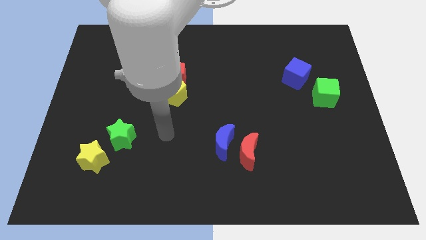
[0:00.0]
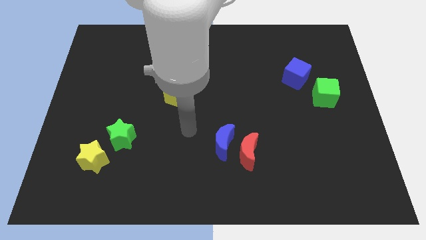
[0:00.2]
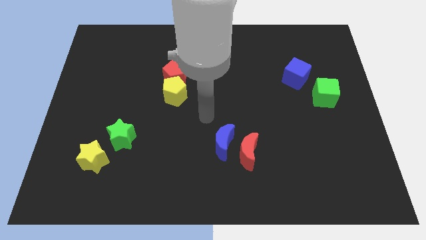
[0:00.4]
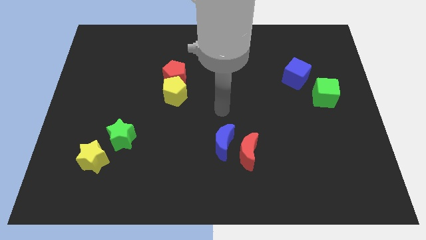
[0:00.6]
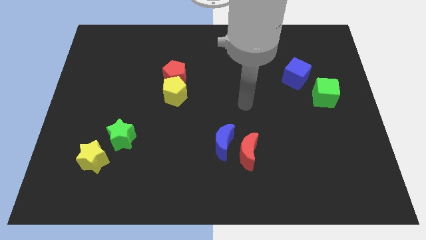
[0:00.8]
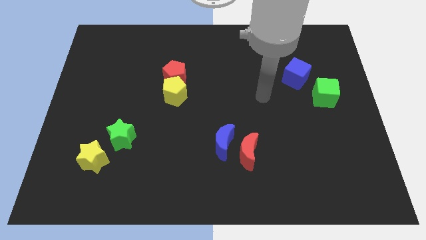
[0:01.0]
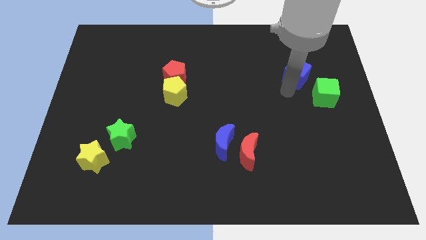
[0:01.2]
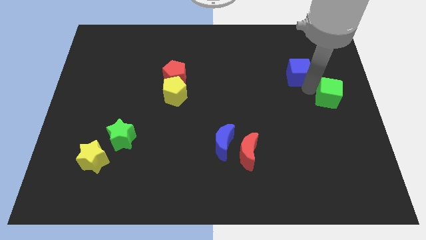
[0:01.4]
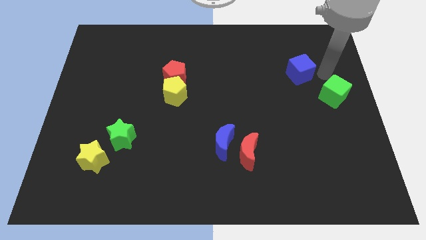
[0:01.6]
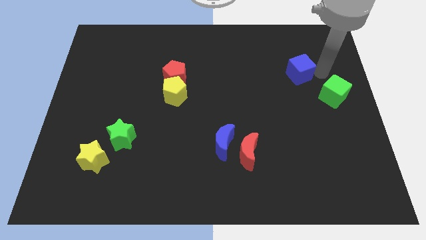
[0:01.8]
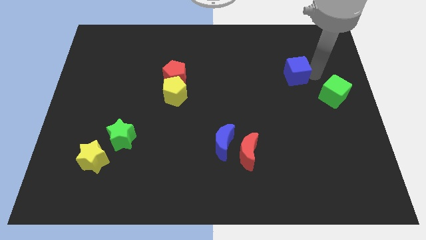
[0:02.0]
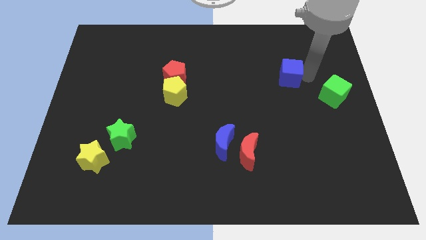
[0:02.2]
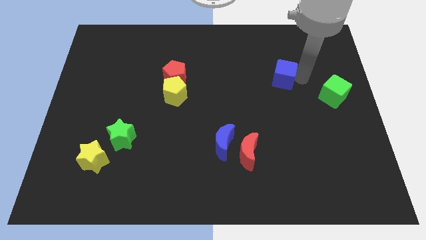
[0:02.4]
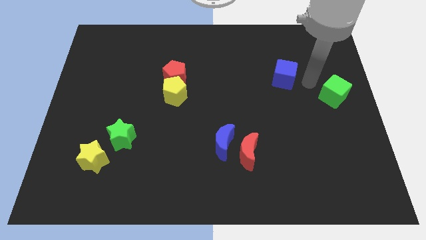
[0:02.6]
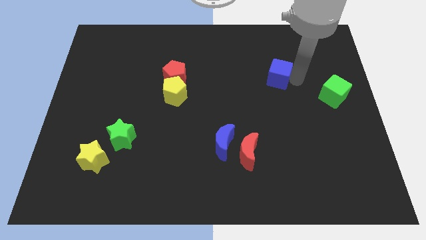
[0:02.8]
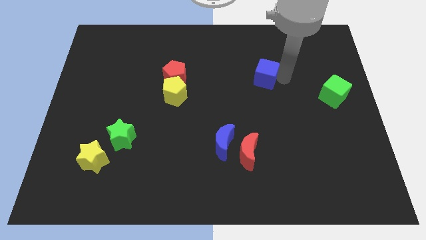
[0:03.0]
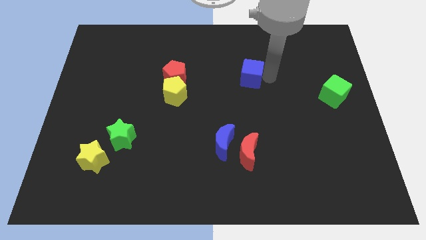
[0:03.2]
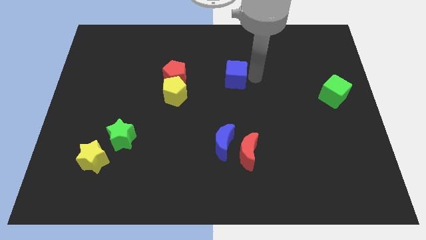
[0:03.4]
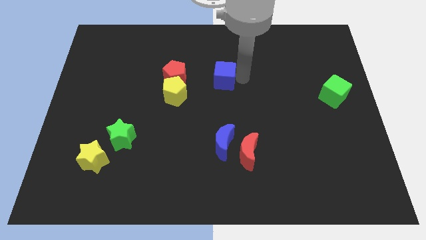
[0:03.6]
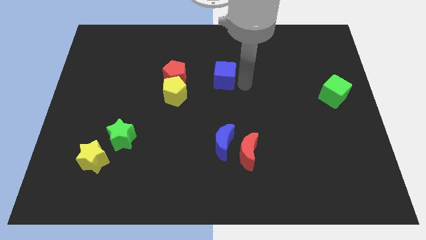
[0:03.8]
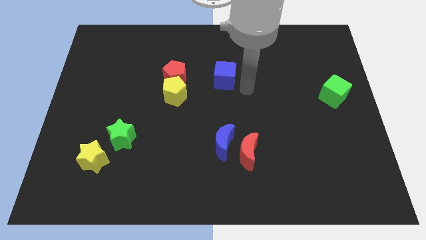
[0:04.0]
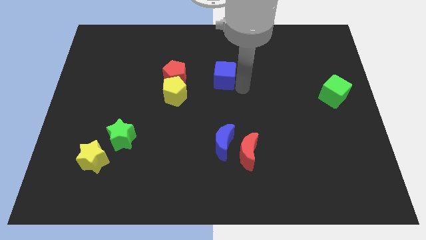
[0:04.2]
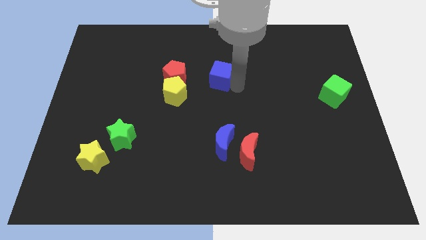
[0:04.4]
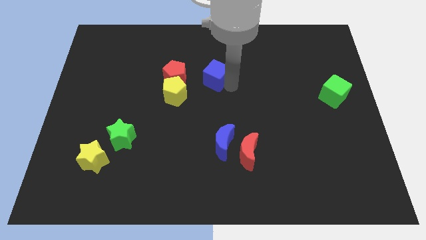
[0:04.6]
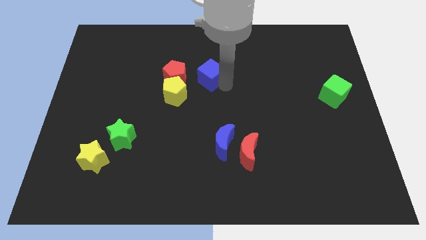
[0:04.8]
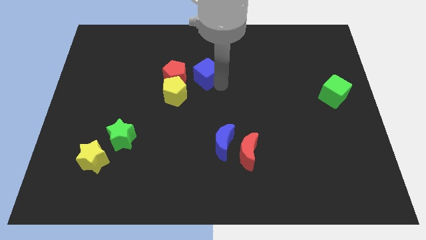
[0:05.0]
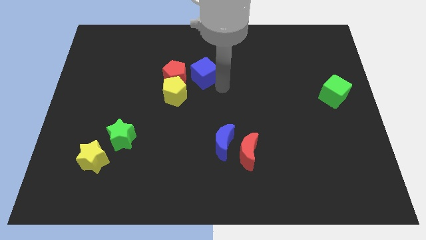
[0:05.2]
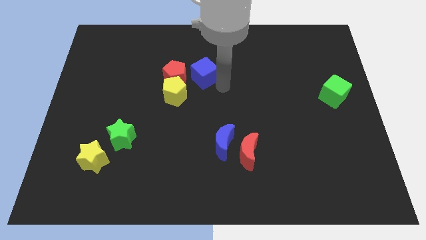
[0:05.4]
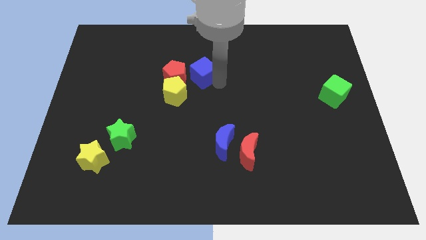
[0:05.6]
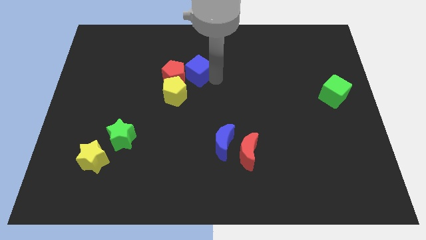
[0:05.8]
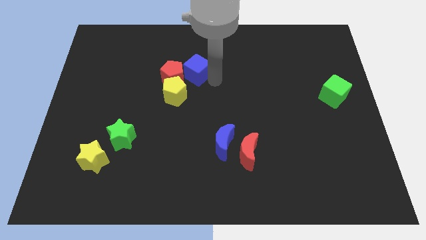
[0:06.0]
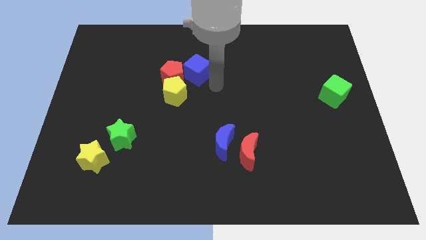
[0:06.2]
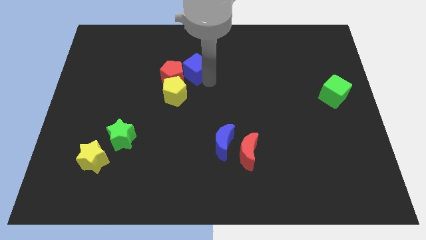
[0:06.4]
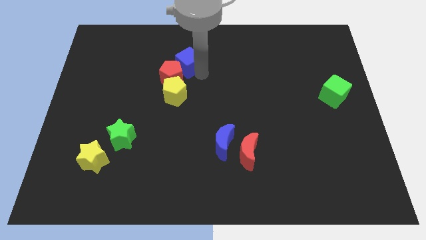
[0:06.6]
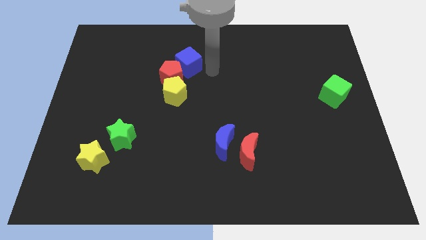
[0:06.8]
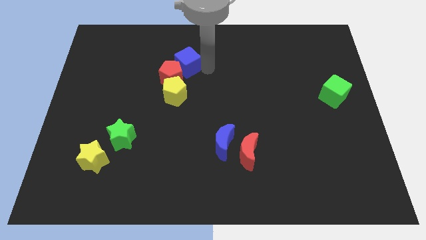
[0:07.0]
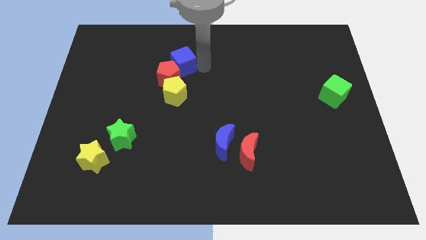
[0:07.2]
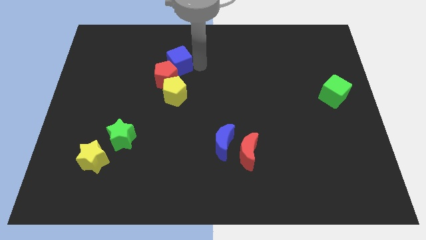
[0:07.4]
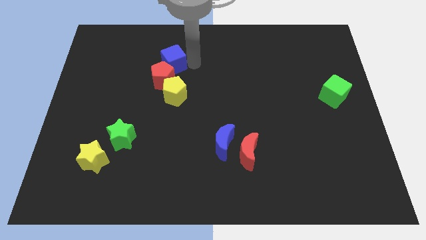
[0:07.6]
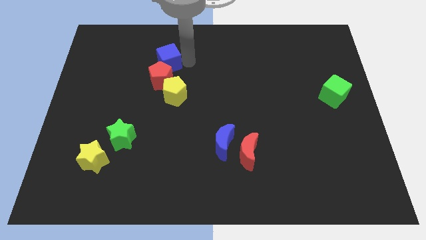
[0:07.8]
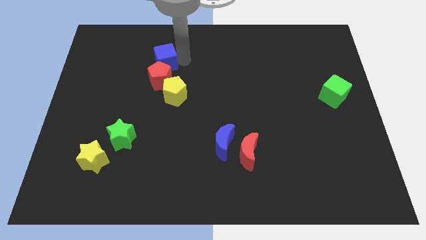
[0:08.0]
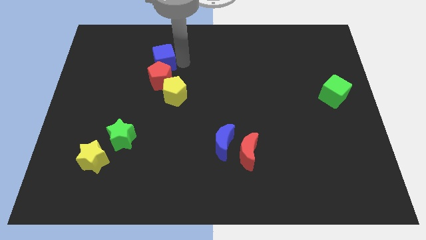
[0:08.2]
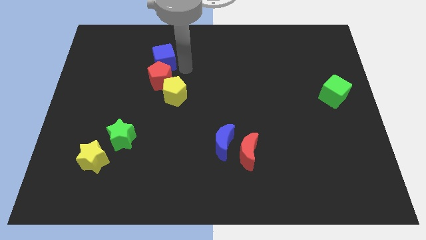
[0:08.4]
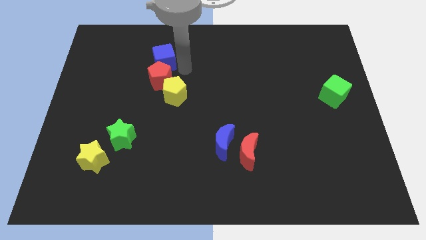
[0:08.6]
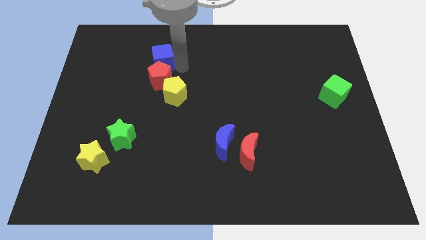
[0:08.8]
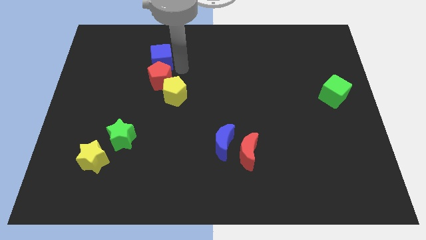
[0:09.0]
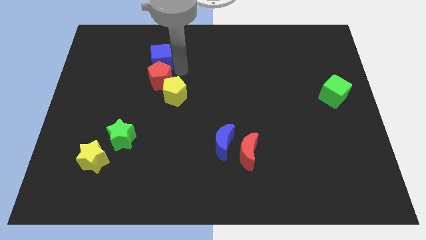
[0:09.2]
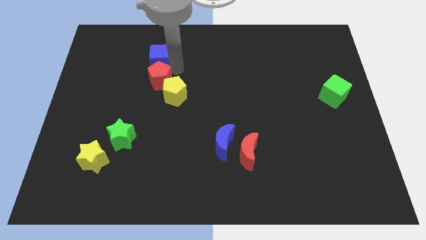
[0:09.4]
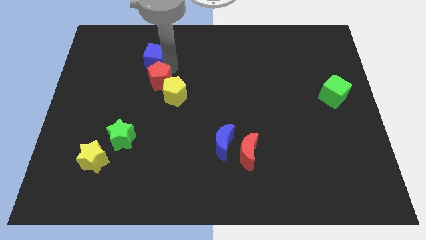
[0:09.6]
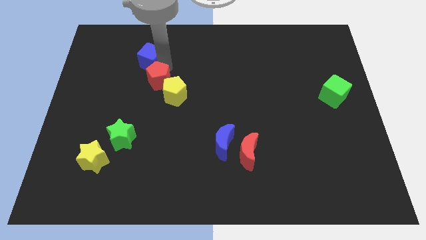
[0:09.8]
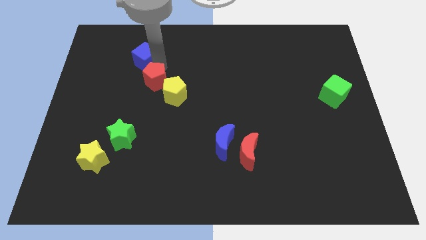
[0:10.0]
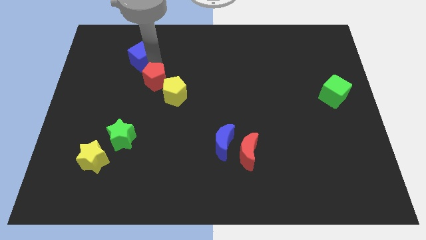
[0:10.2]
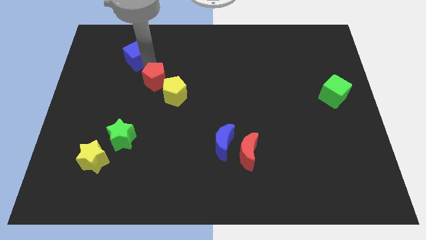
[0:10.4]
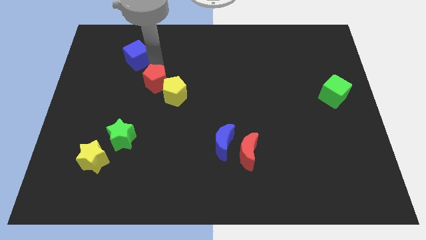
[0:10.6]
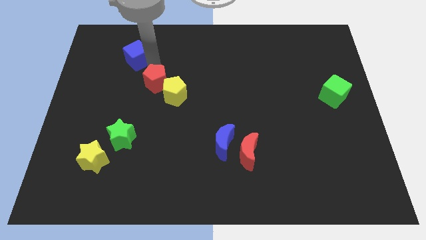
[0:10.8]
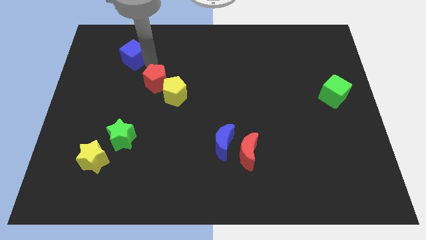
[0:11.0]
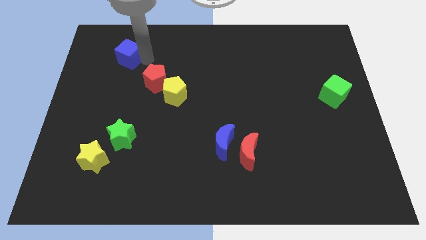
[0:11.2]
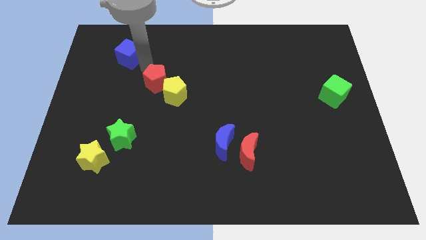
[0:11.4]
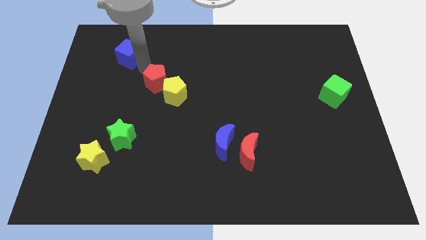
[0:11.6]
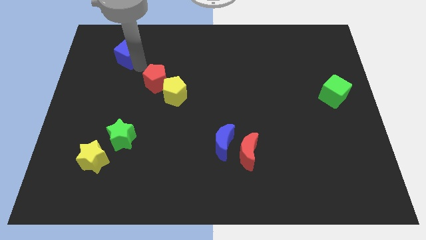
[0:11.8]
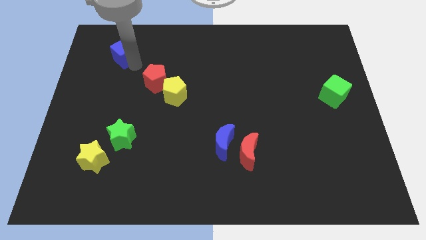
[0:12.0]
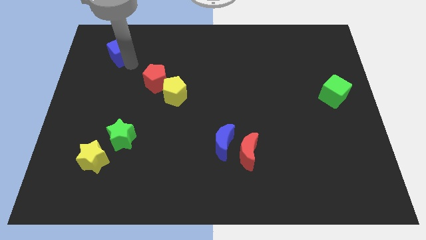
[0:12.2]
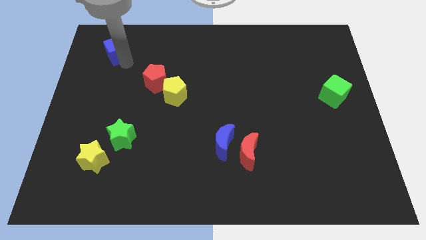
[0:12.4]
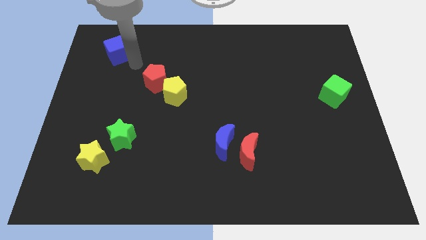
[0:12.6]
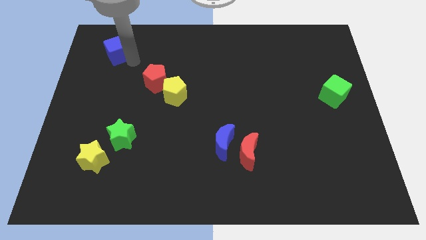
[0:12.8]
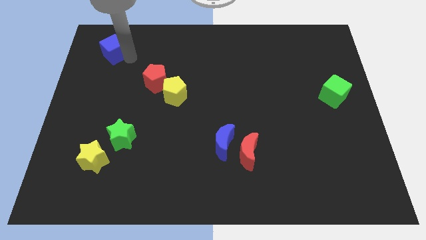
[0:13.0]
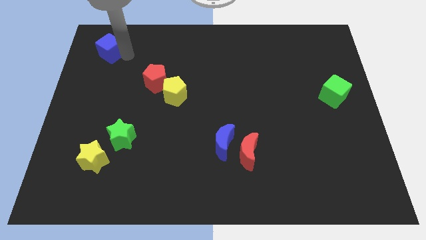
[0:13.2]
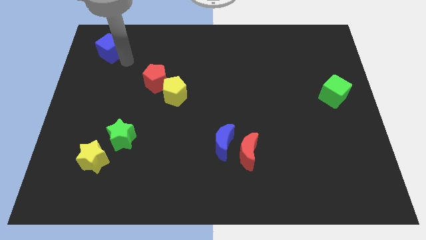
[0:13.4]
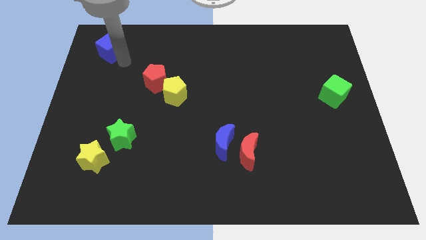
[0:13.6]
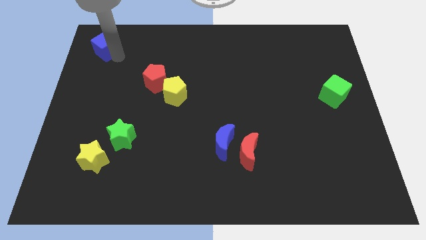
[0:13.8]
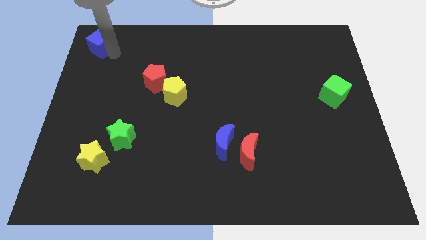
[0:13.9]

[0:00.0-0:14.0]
put the blue cube to the top left

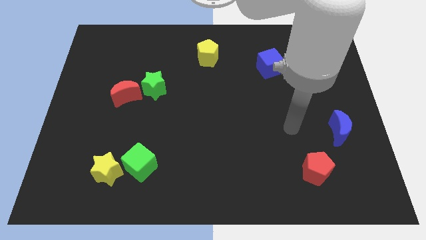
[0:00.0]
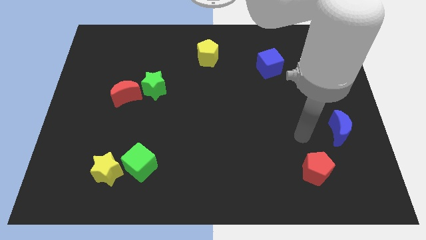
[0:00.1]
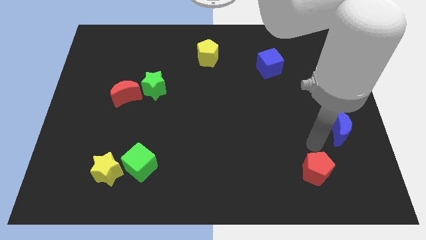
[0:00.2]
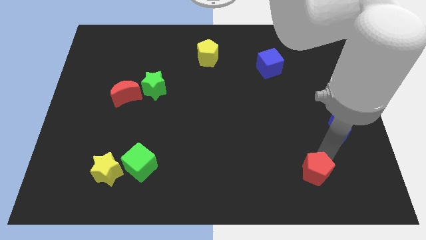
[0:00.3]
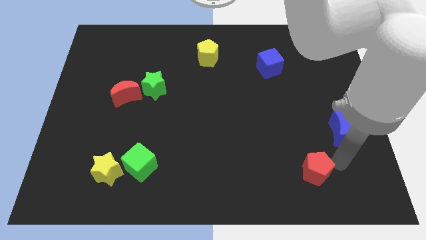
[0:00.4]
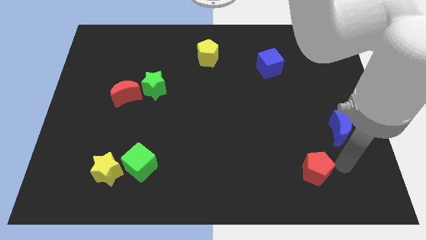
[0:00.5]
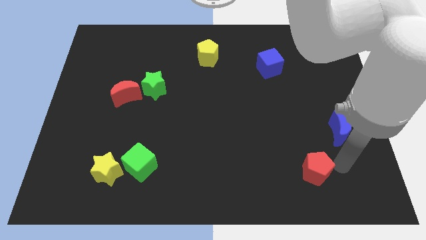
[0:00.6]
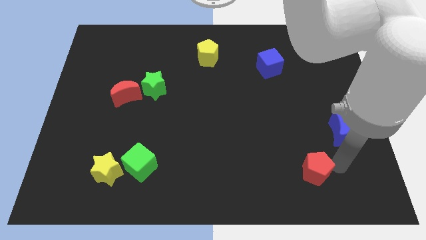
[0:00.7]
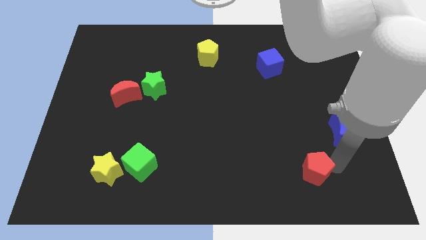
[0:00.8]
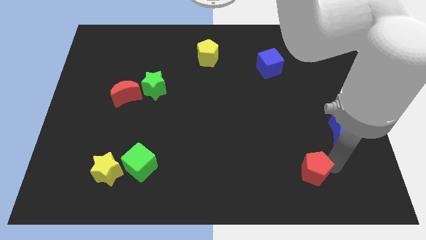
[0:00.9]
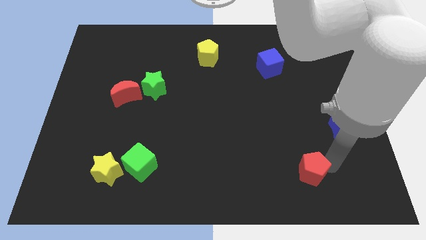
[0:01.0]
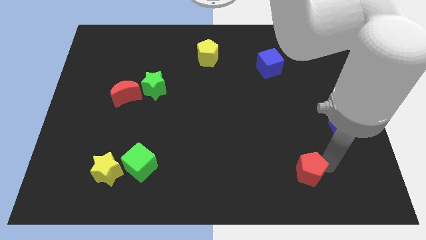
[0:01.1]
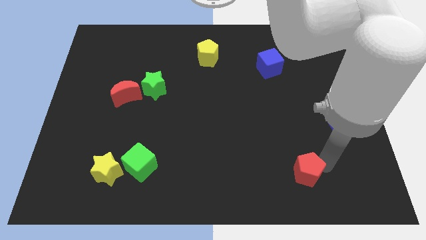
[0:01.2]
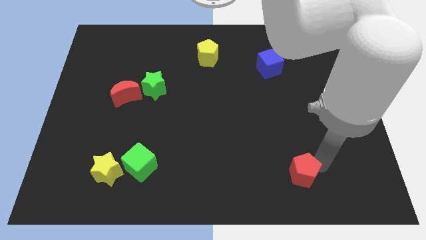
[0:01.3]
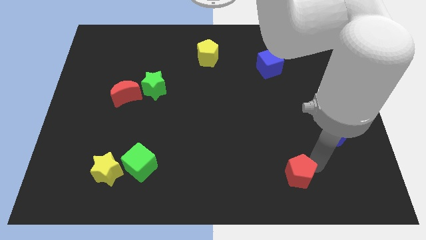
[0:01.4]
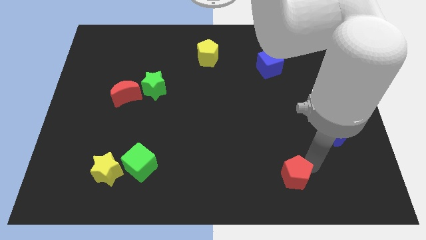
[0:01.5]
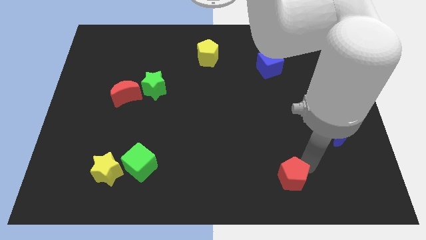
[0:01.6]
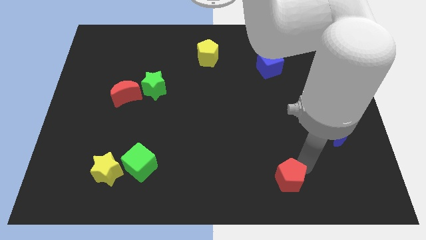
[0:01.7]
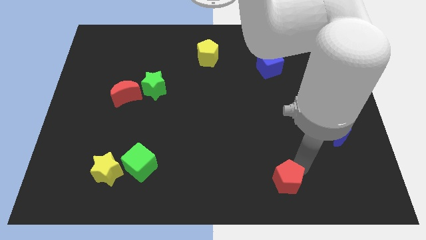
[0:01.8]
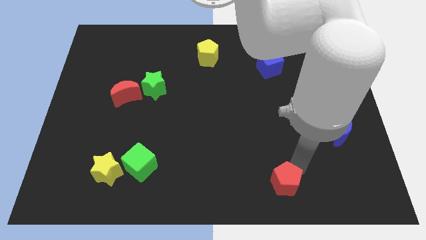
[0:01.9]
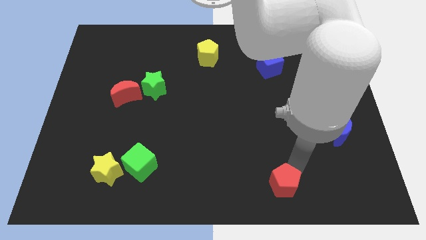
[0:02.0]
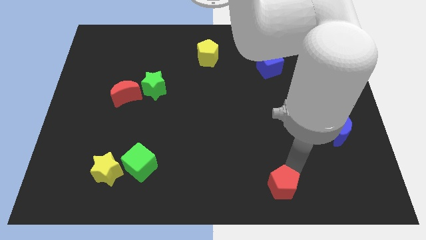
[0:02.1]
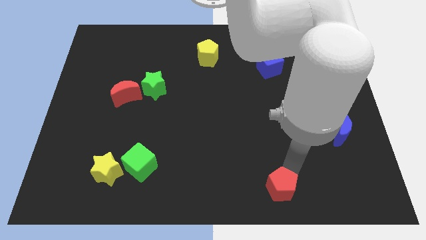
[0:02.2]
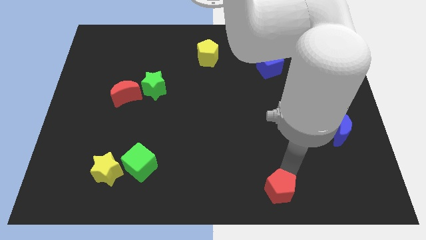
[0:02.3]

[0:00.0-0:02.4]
move the red pentagon to the bottom side
